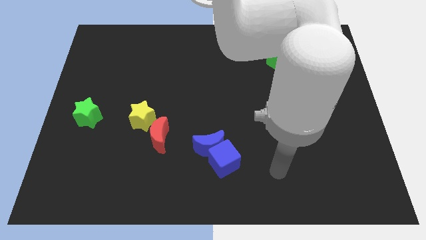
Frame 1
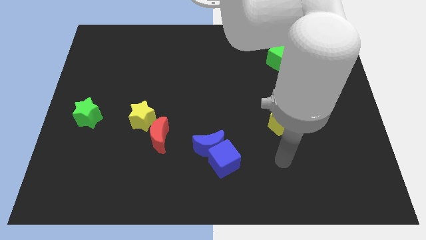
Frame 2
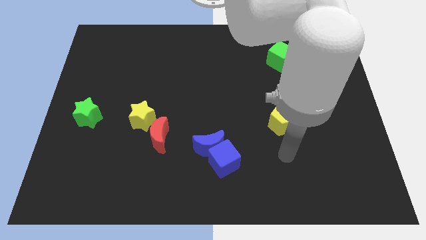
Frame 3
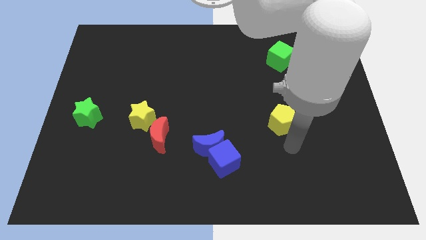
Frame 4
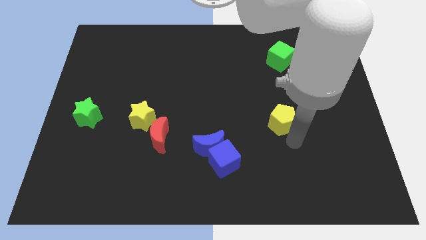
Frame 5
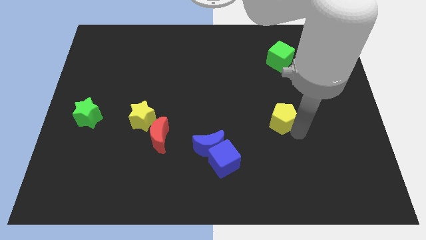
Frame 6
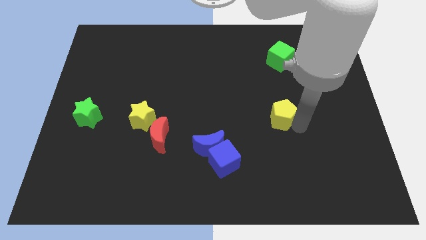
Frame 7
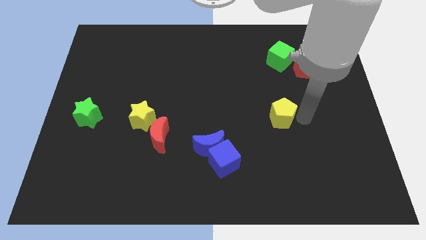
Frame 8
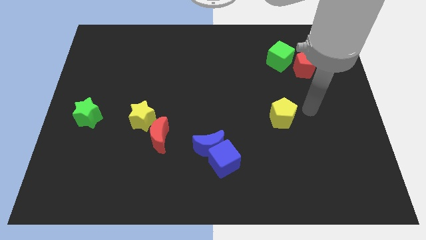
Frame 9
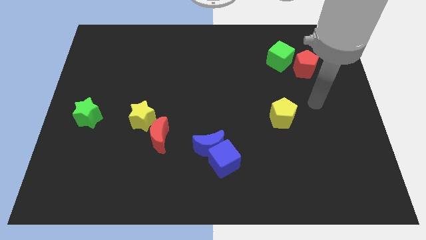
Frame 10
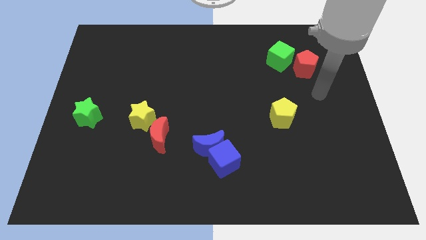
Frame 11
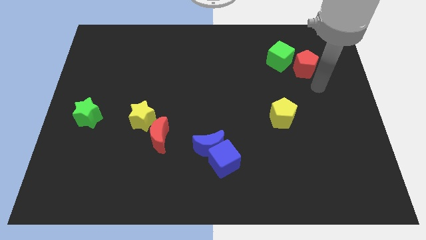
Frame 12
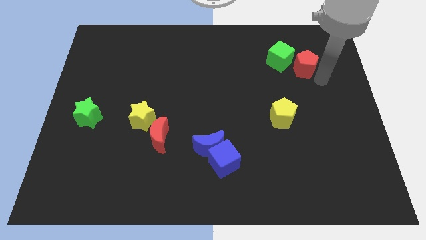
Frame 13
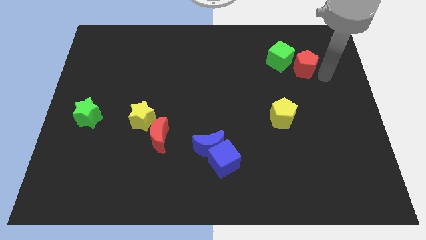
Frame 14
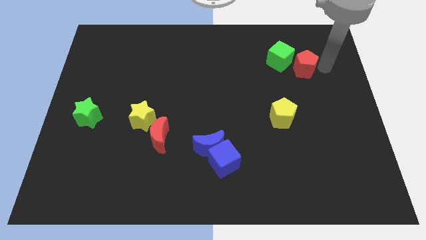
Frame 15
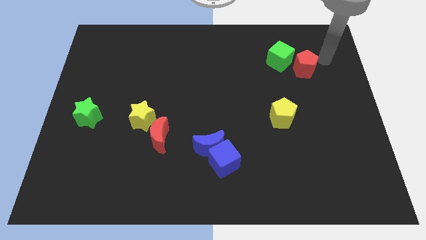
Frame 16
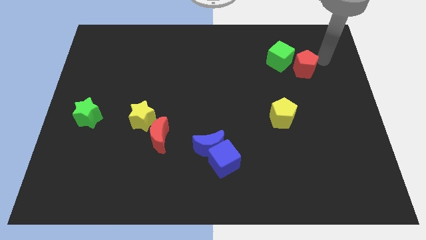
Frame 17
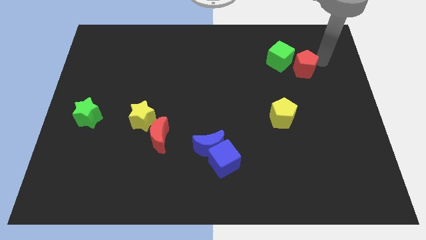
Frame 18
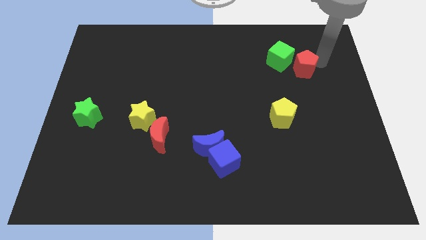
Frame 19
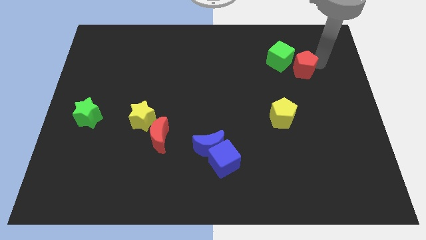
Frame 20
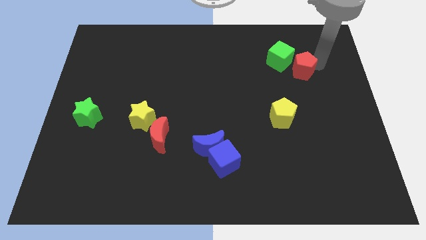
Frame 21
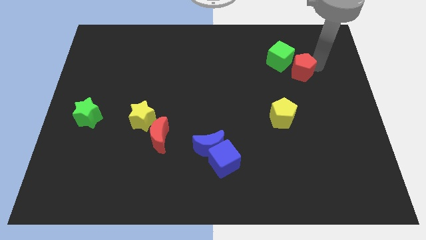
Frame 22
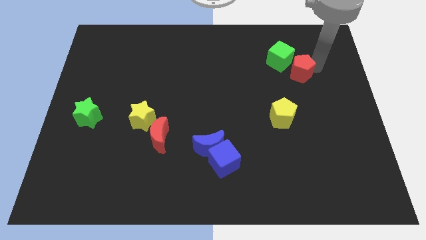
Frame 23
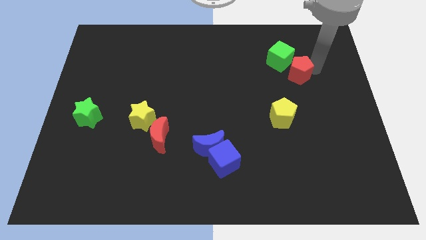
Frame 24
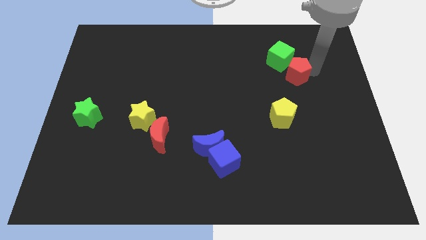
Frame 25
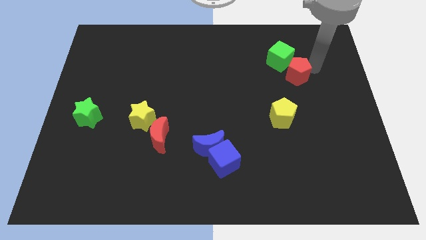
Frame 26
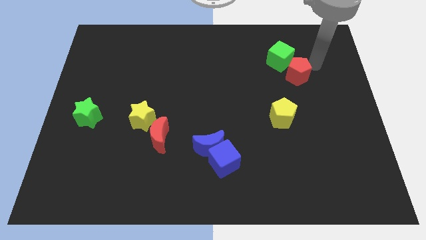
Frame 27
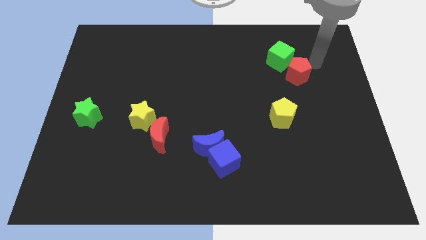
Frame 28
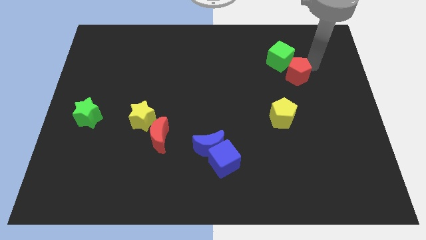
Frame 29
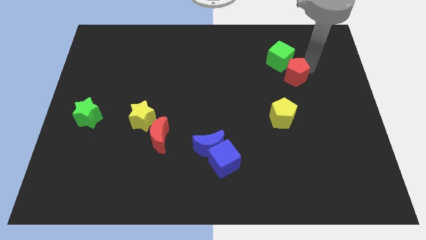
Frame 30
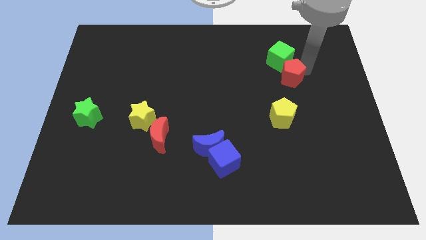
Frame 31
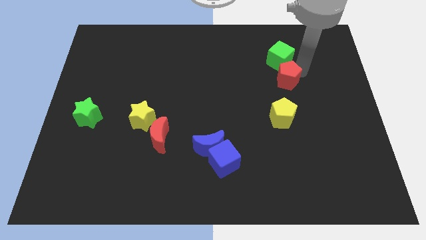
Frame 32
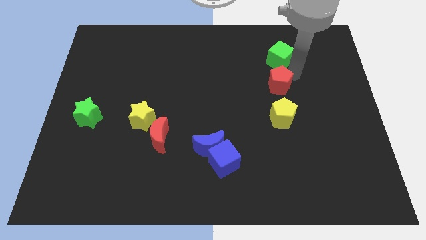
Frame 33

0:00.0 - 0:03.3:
slightly move the red pentagon down and left diagonally

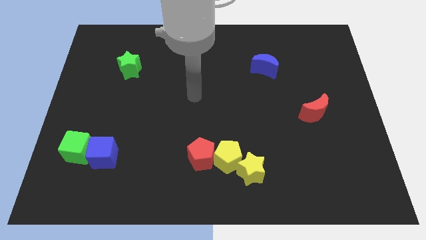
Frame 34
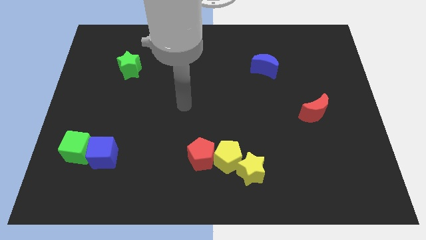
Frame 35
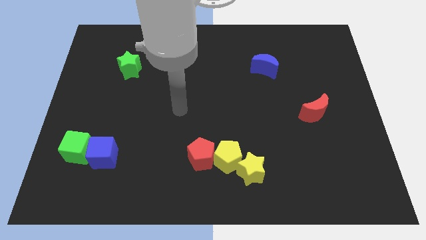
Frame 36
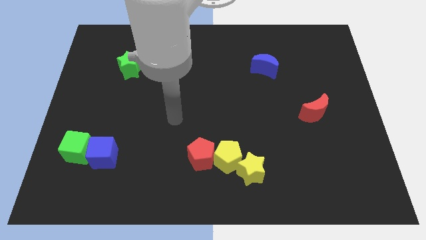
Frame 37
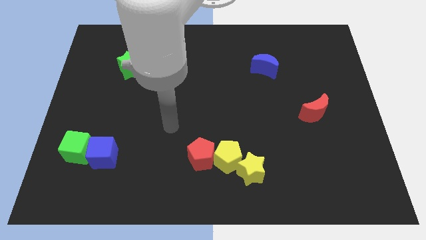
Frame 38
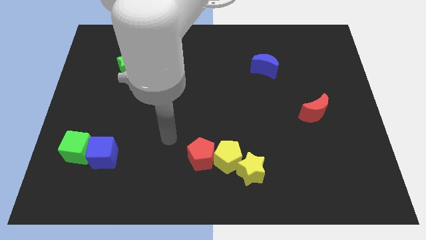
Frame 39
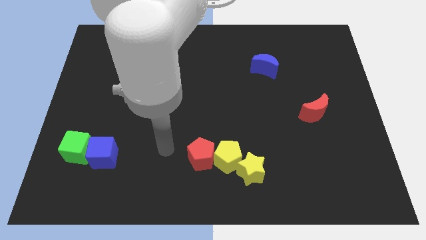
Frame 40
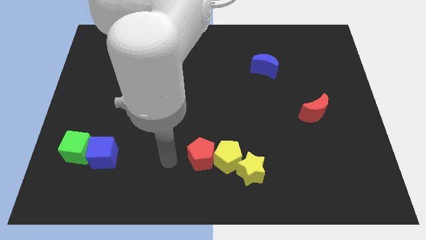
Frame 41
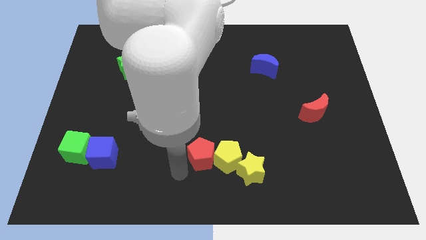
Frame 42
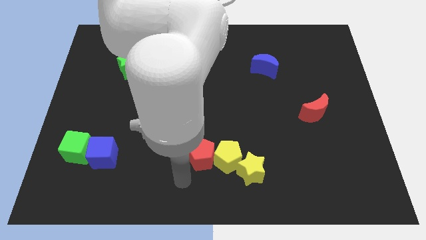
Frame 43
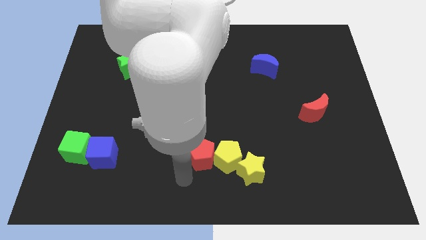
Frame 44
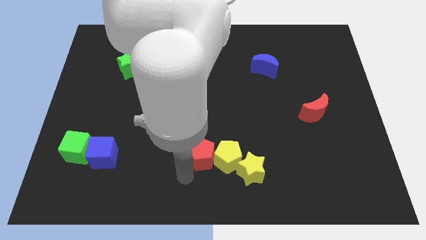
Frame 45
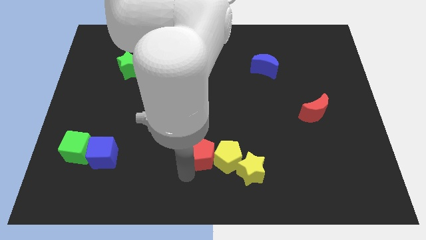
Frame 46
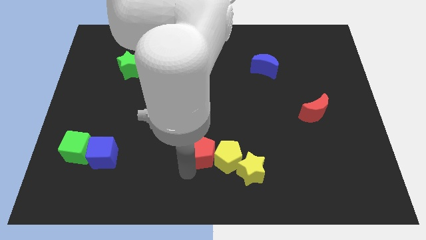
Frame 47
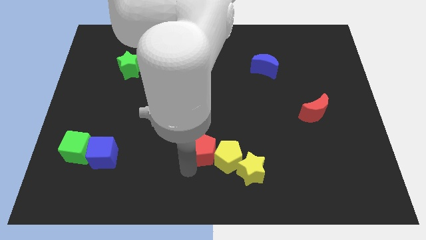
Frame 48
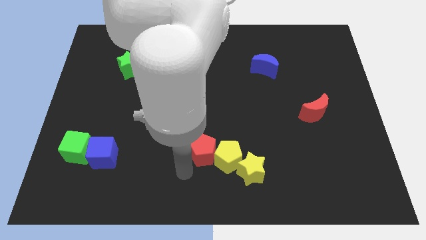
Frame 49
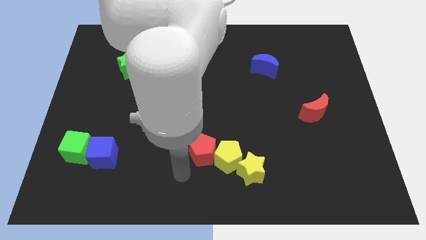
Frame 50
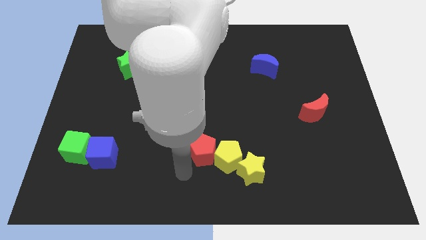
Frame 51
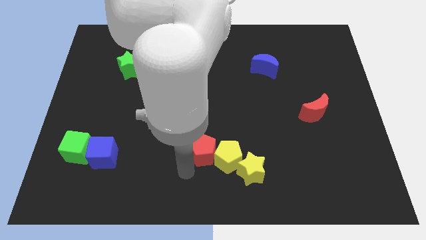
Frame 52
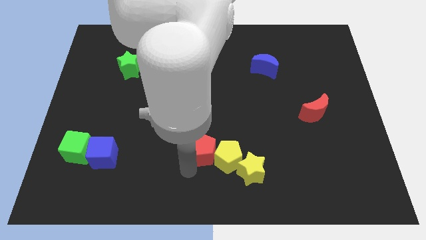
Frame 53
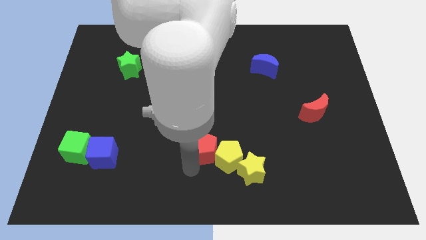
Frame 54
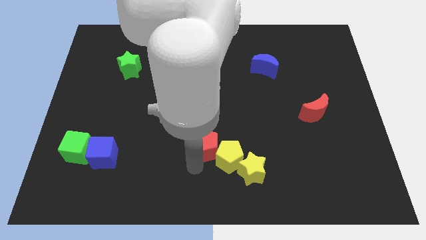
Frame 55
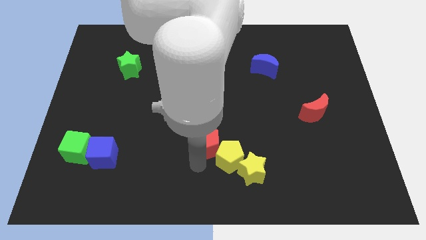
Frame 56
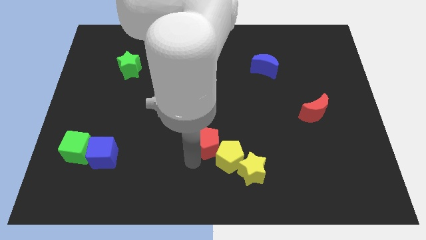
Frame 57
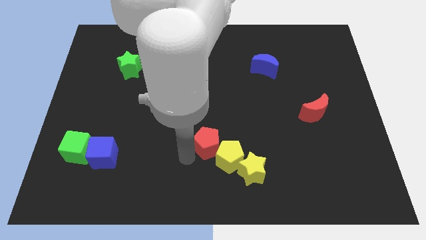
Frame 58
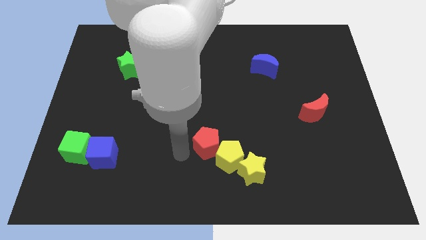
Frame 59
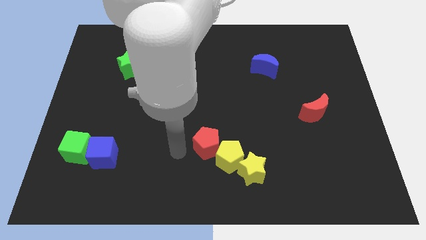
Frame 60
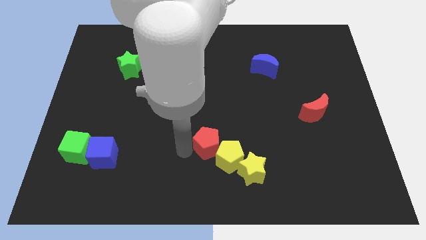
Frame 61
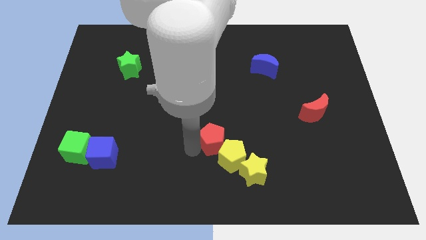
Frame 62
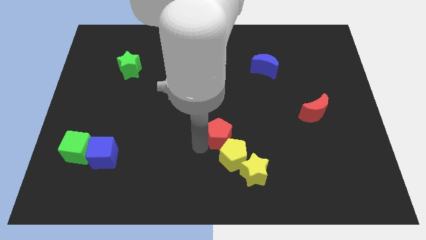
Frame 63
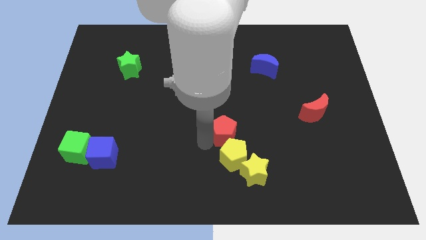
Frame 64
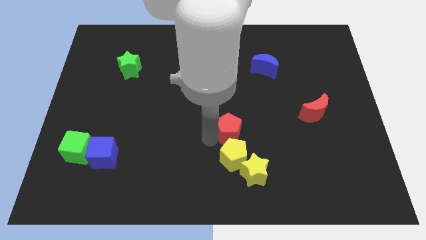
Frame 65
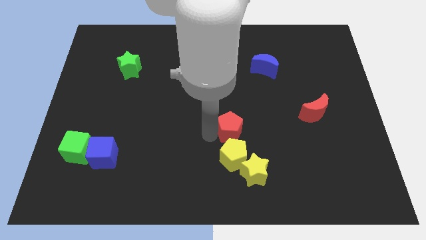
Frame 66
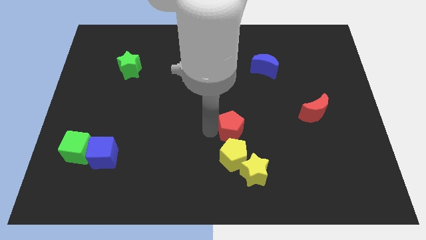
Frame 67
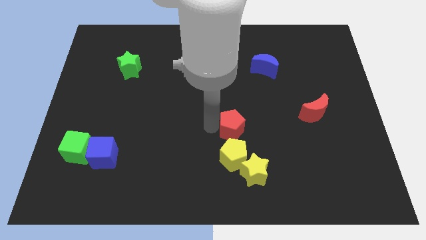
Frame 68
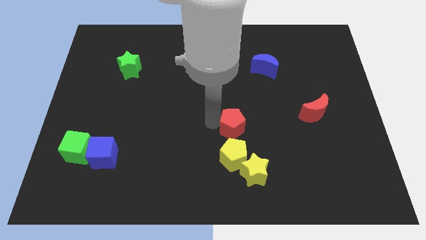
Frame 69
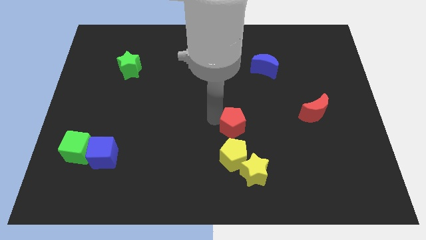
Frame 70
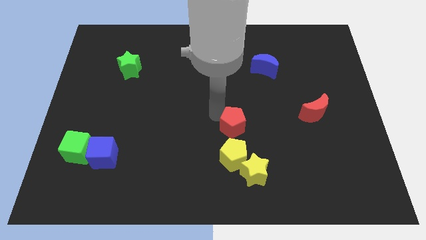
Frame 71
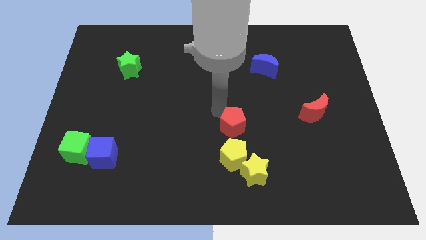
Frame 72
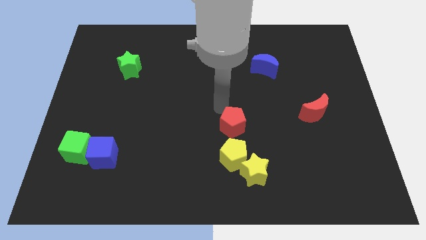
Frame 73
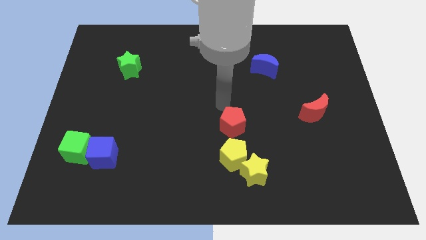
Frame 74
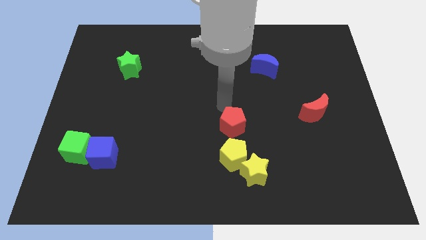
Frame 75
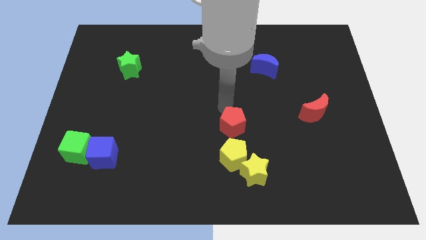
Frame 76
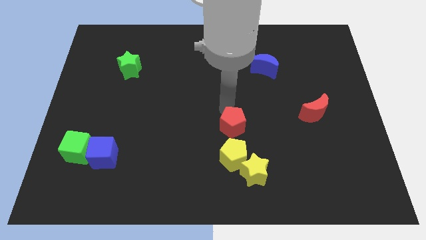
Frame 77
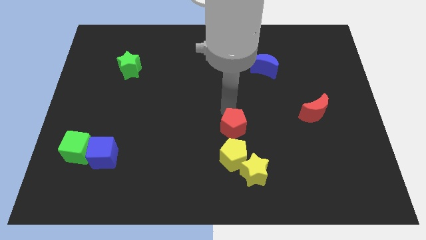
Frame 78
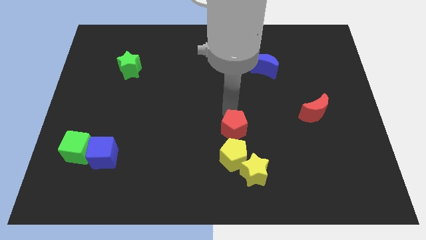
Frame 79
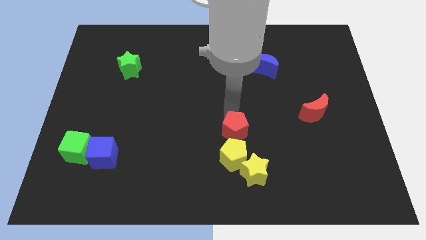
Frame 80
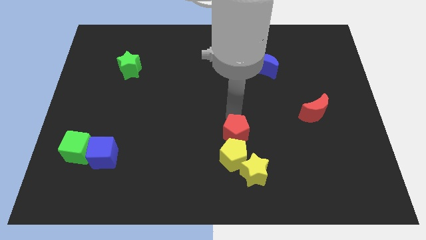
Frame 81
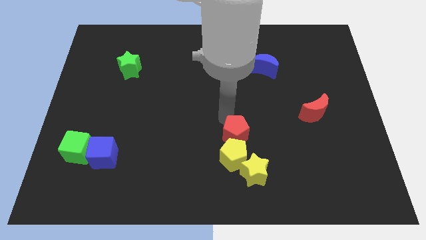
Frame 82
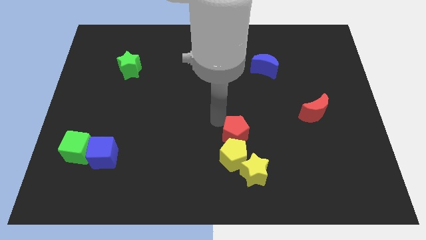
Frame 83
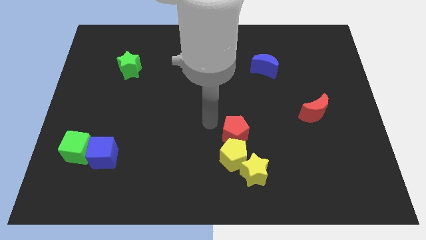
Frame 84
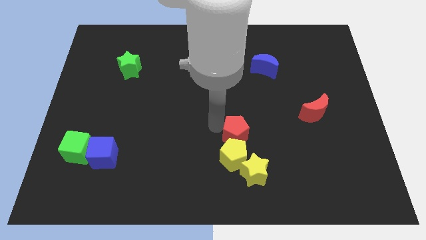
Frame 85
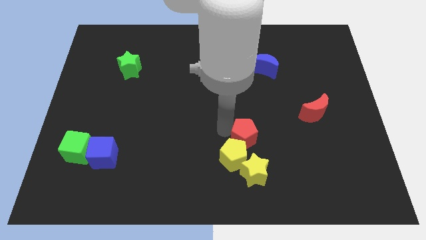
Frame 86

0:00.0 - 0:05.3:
slide the red pentagon a little to the right

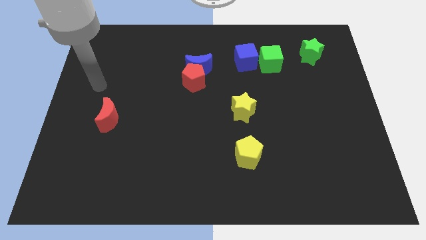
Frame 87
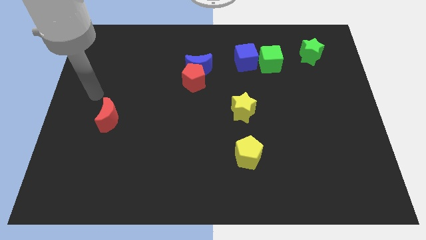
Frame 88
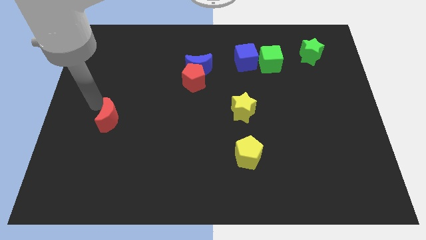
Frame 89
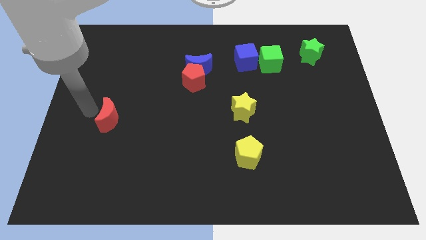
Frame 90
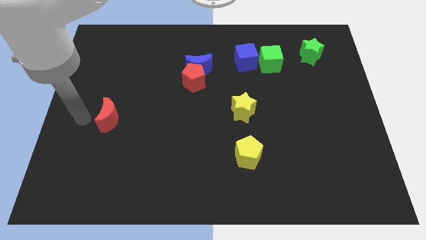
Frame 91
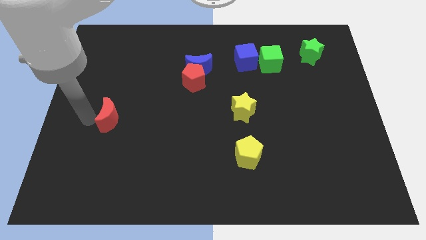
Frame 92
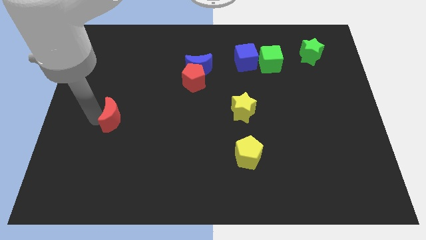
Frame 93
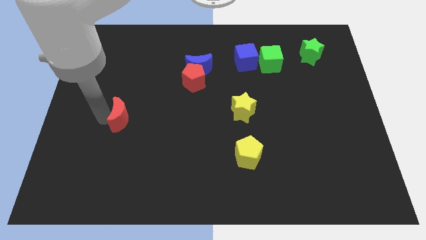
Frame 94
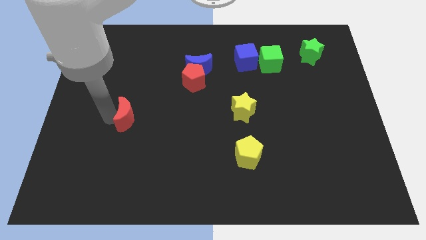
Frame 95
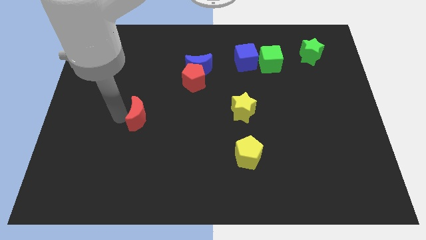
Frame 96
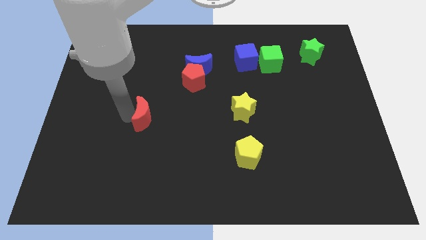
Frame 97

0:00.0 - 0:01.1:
push the red moon somewhat right
